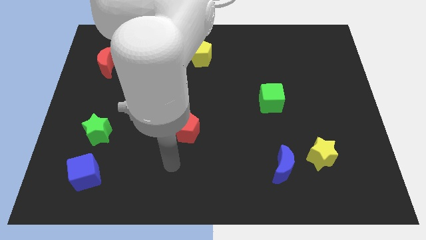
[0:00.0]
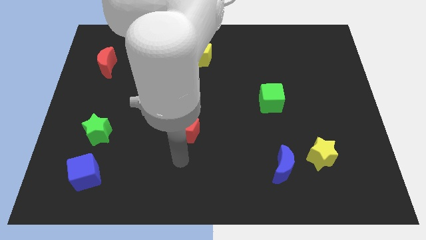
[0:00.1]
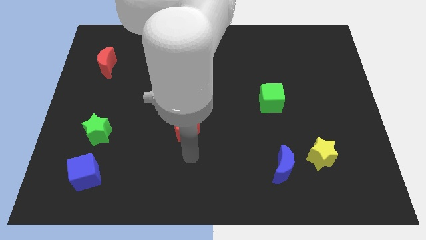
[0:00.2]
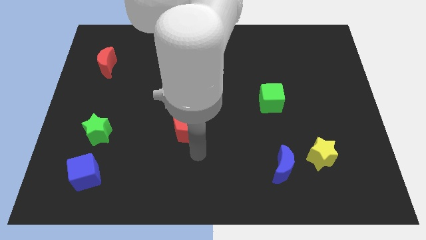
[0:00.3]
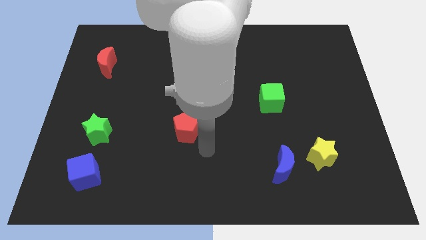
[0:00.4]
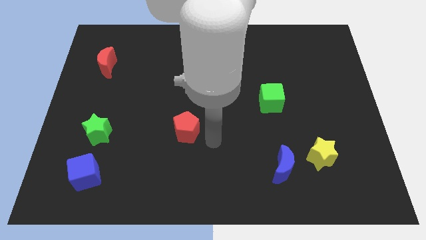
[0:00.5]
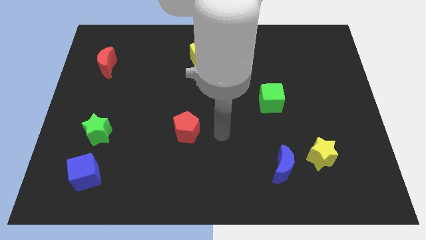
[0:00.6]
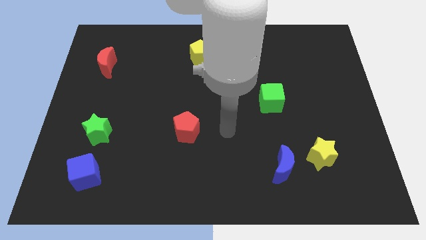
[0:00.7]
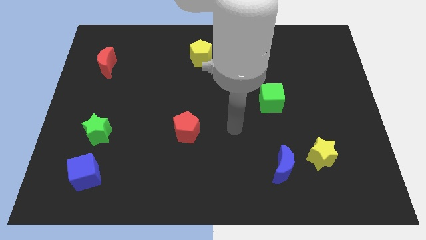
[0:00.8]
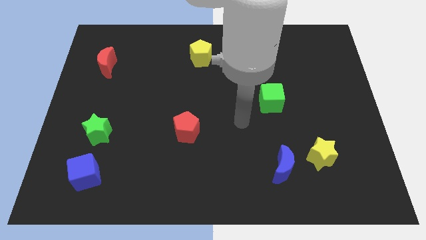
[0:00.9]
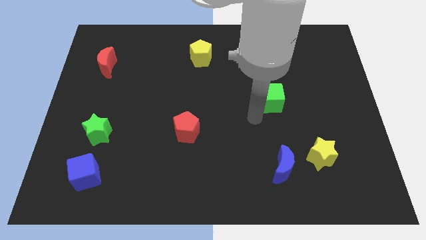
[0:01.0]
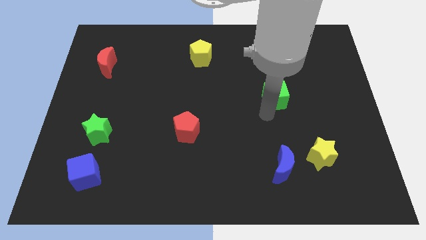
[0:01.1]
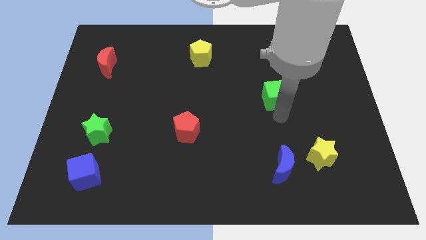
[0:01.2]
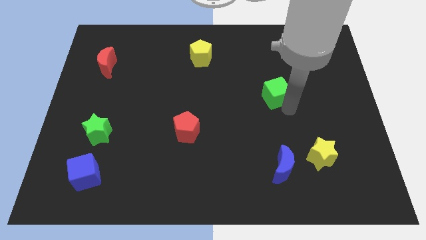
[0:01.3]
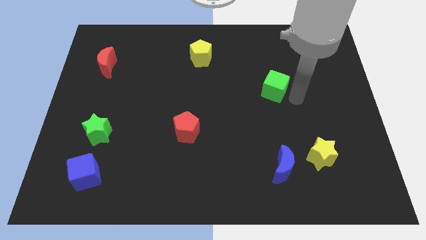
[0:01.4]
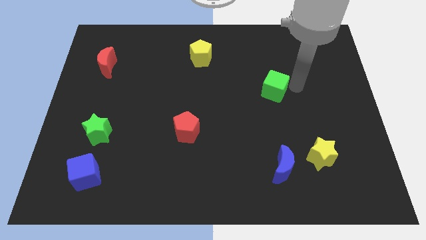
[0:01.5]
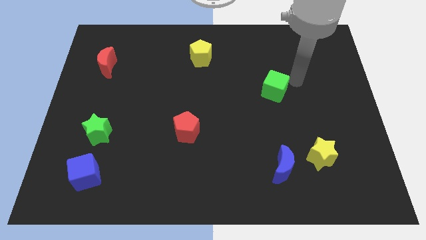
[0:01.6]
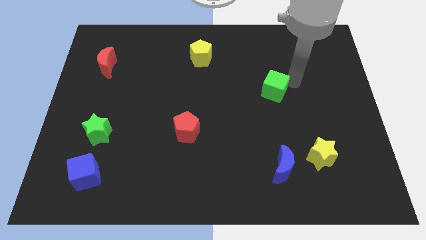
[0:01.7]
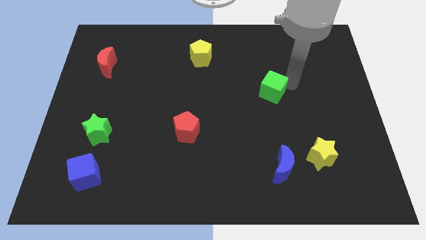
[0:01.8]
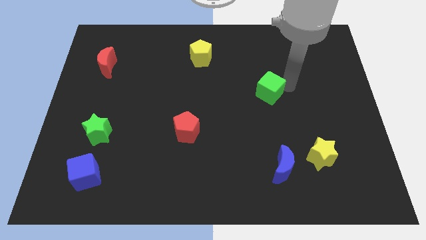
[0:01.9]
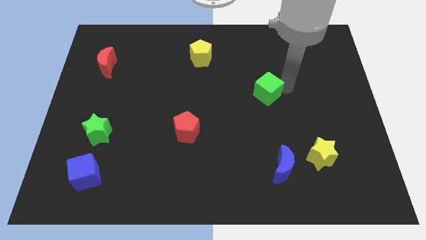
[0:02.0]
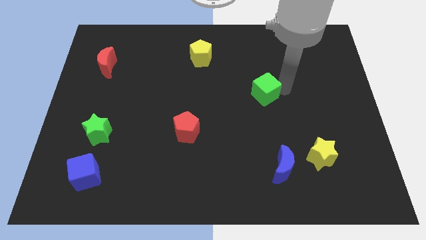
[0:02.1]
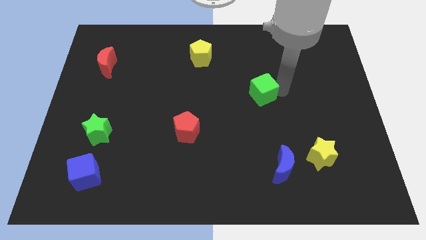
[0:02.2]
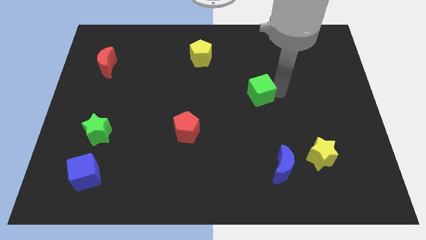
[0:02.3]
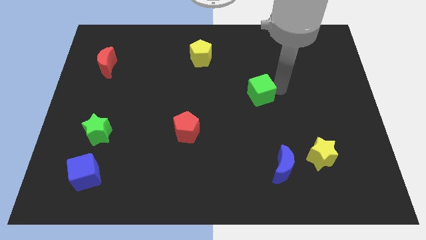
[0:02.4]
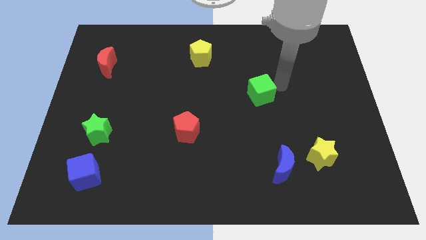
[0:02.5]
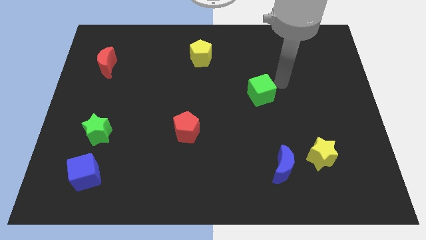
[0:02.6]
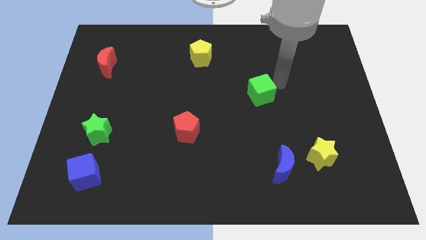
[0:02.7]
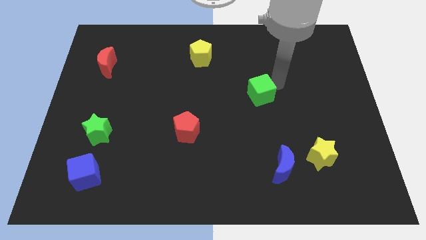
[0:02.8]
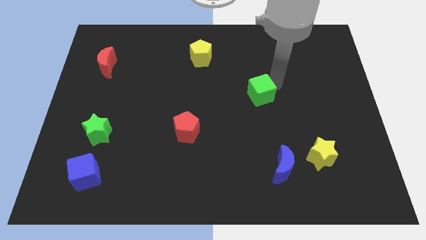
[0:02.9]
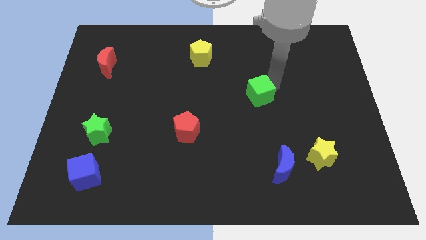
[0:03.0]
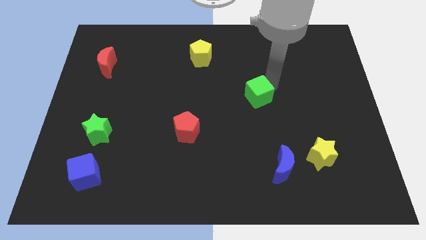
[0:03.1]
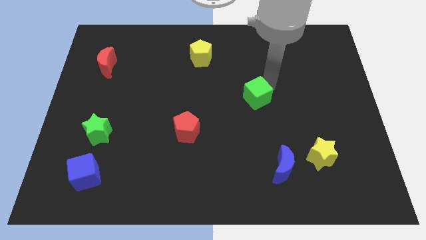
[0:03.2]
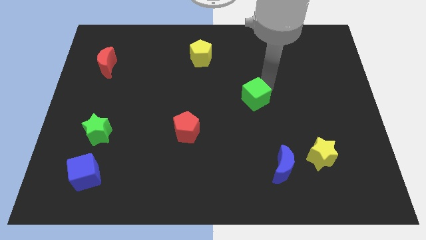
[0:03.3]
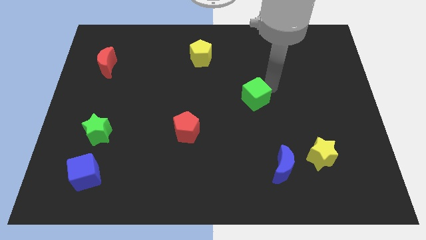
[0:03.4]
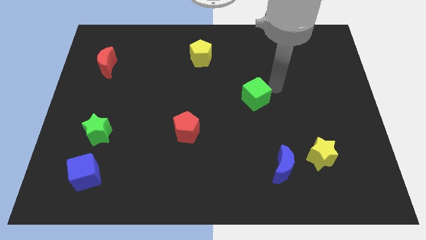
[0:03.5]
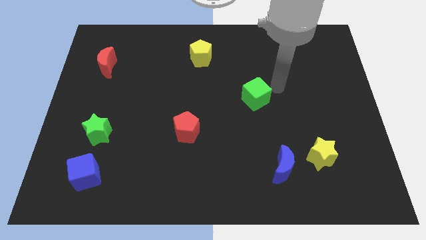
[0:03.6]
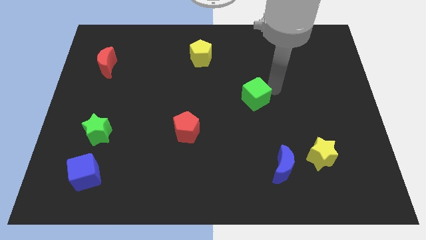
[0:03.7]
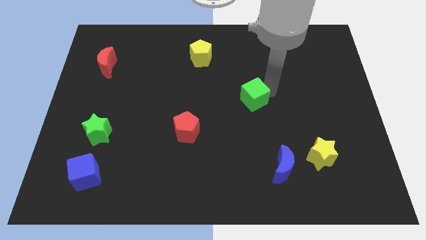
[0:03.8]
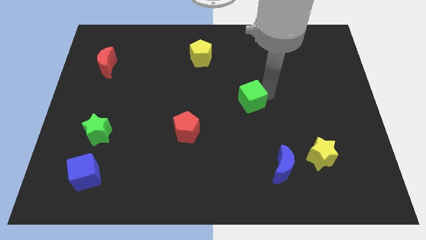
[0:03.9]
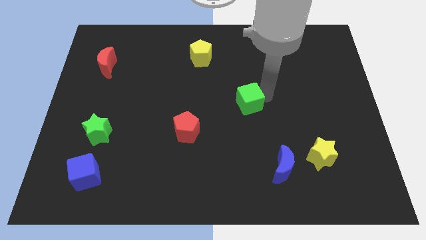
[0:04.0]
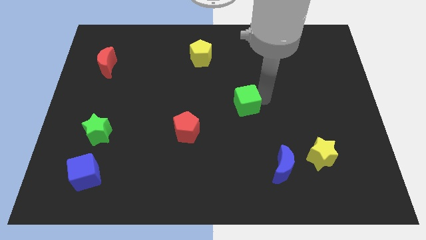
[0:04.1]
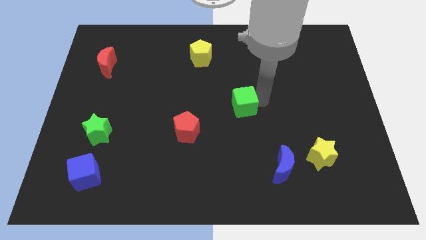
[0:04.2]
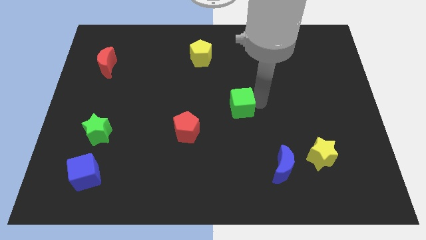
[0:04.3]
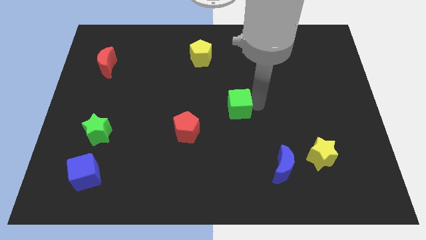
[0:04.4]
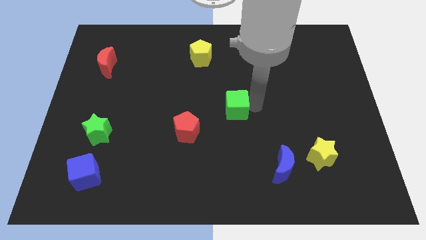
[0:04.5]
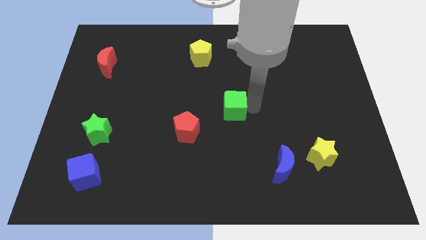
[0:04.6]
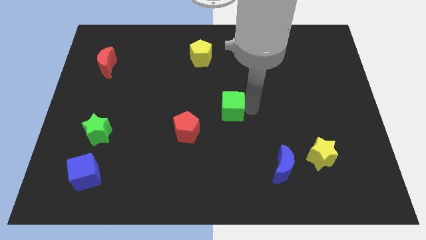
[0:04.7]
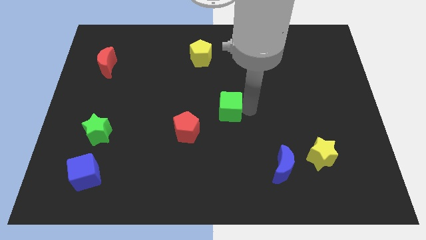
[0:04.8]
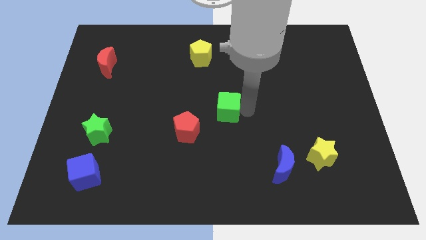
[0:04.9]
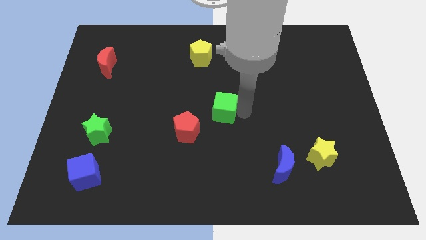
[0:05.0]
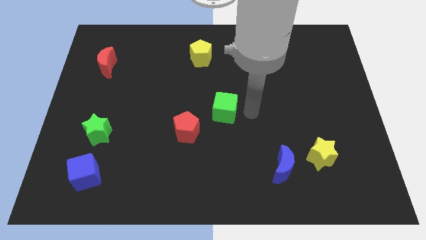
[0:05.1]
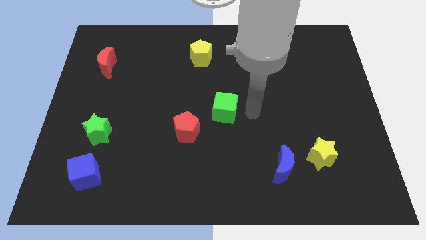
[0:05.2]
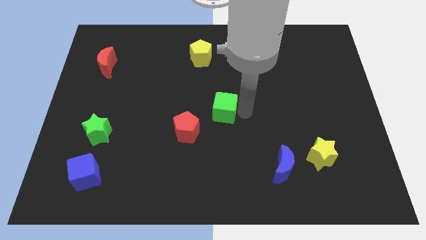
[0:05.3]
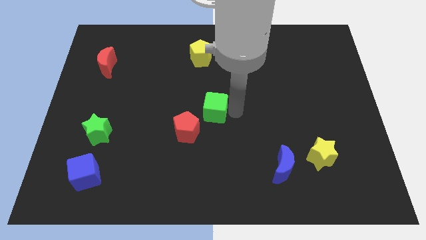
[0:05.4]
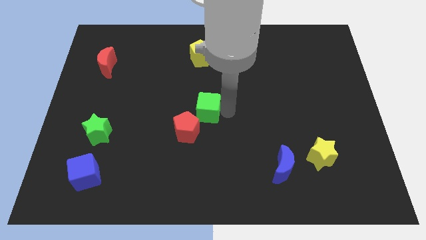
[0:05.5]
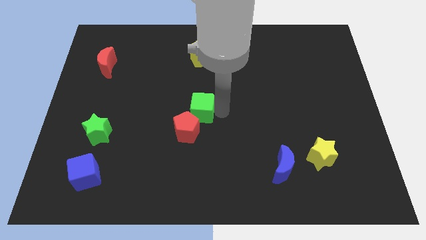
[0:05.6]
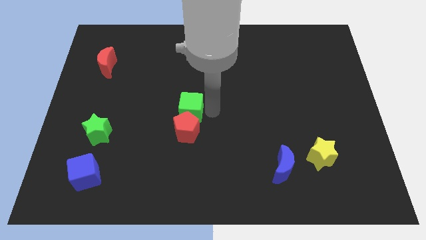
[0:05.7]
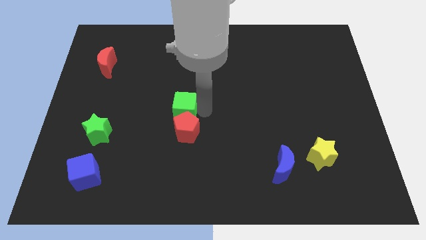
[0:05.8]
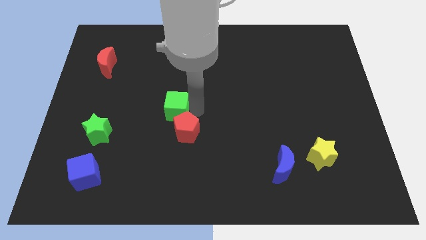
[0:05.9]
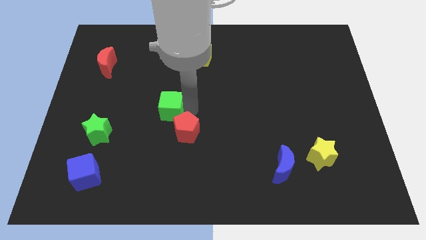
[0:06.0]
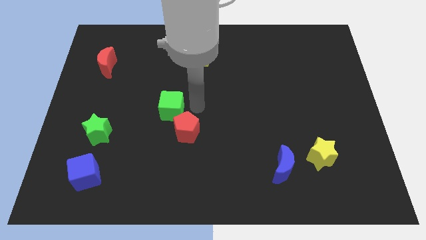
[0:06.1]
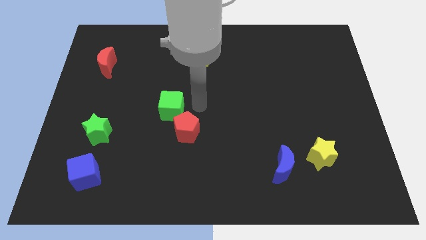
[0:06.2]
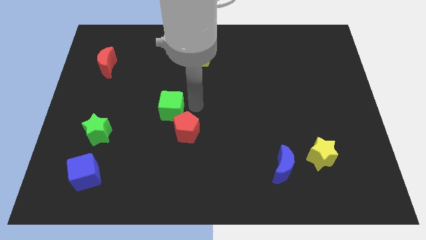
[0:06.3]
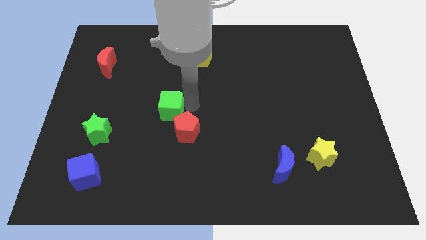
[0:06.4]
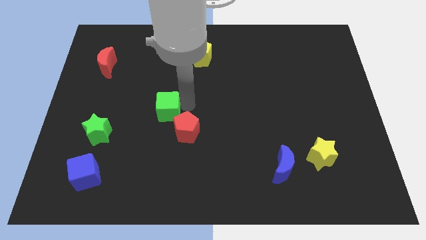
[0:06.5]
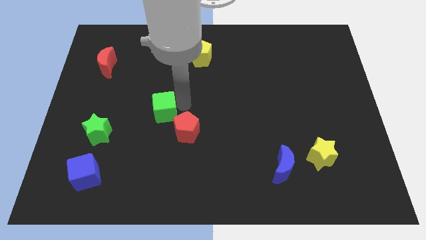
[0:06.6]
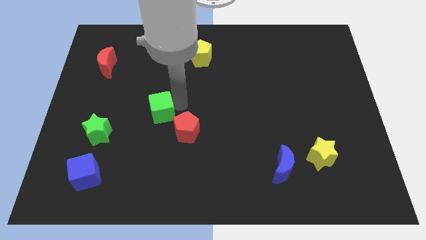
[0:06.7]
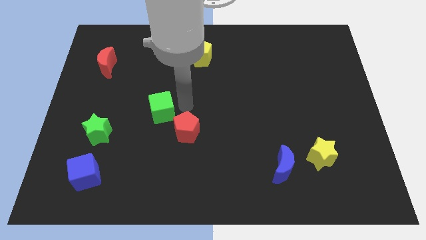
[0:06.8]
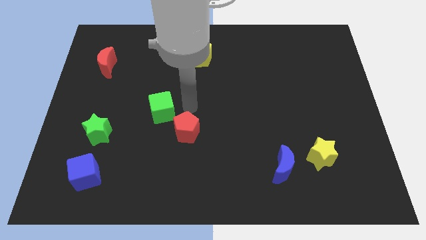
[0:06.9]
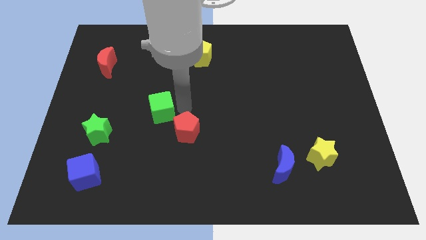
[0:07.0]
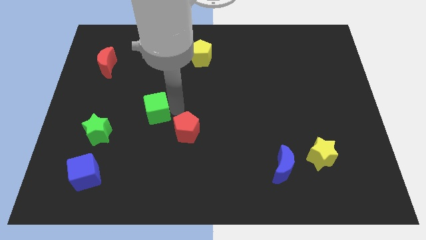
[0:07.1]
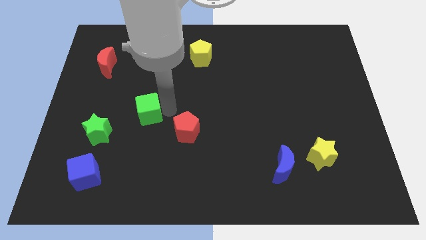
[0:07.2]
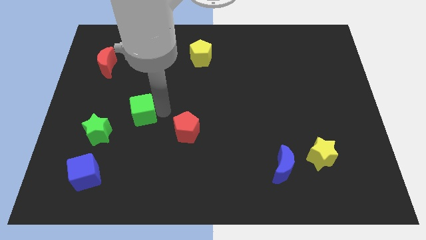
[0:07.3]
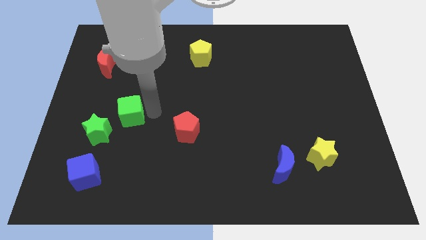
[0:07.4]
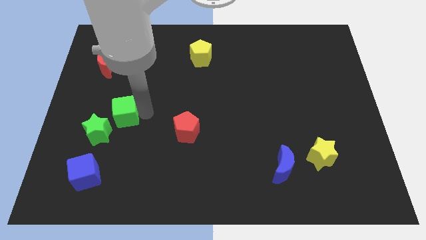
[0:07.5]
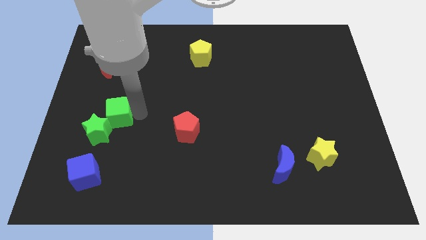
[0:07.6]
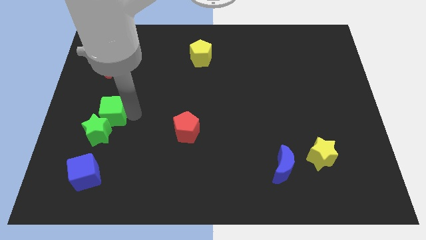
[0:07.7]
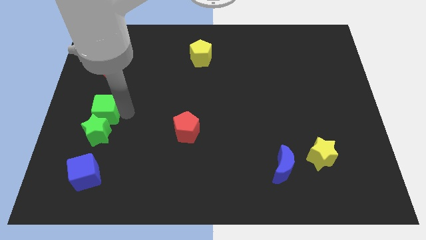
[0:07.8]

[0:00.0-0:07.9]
slide the green cube above the blue cube

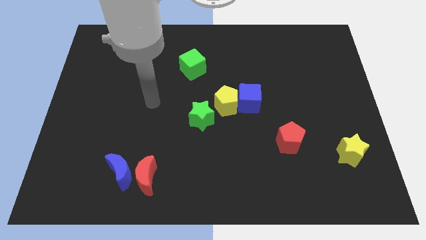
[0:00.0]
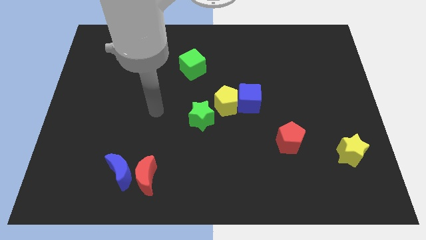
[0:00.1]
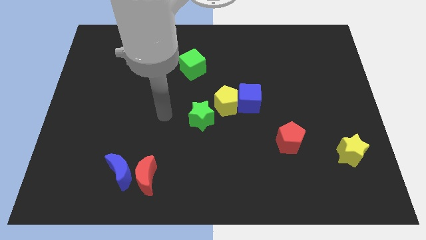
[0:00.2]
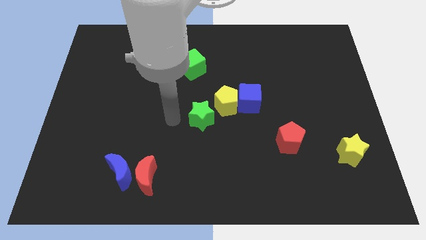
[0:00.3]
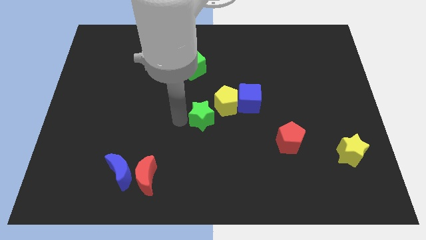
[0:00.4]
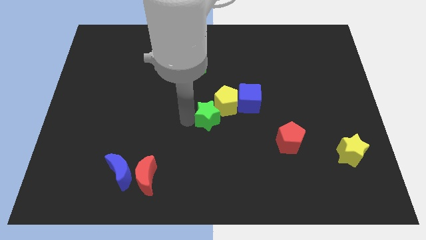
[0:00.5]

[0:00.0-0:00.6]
slide the green star diagonally down and to the left of the blue cube
